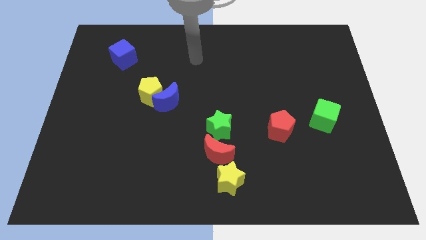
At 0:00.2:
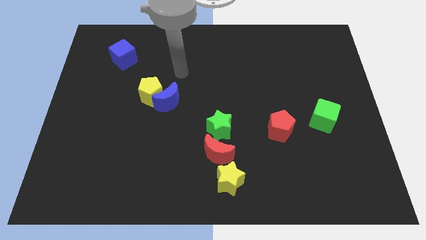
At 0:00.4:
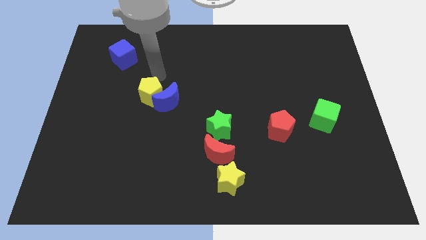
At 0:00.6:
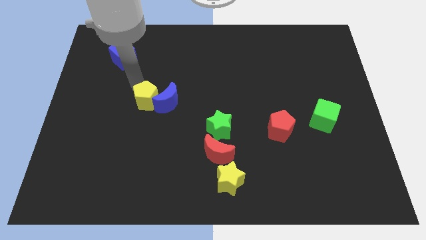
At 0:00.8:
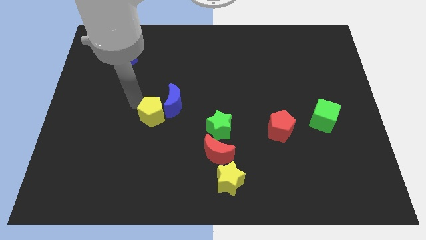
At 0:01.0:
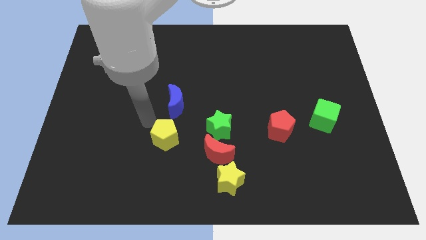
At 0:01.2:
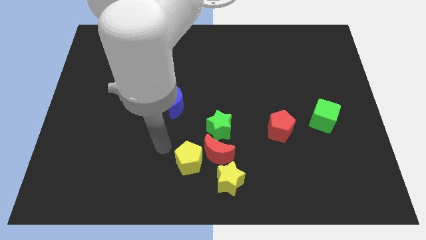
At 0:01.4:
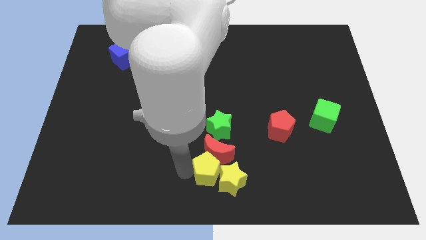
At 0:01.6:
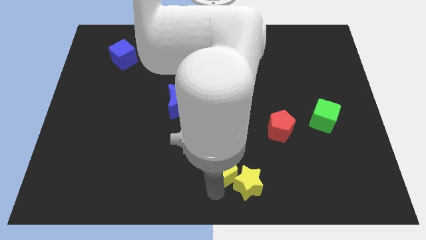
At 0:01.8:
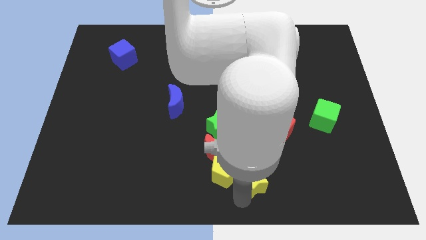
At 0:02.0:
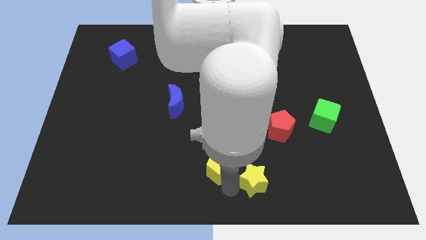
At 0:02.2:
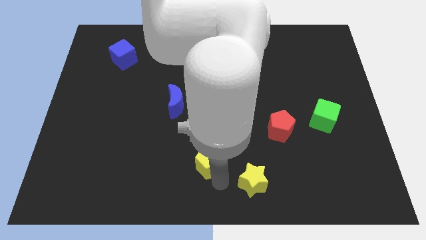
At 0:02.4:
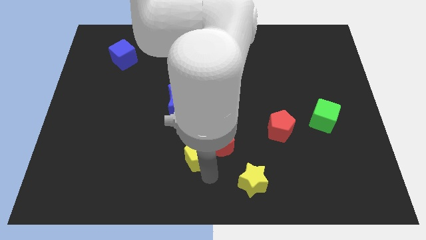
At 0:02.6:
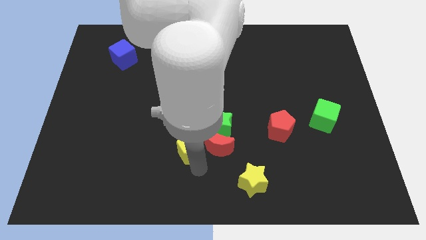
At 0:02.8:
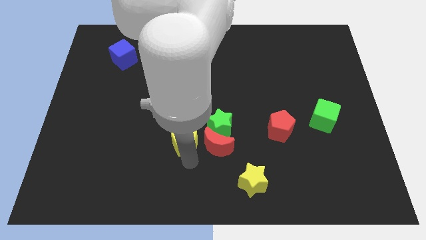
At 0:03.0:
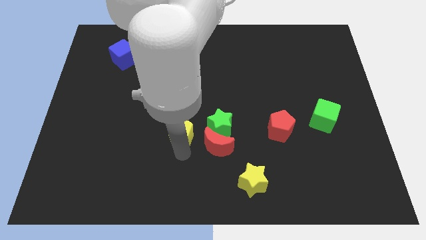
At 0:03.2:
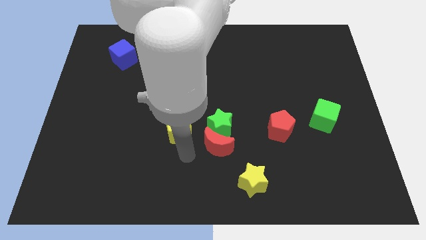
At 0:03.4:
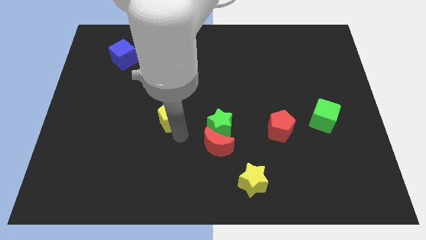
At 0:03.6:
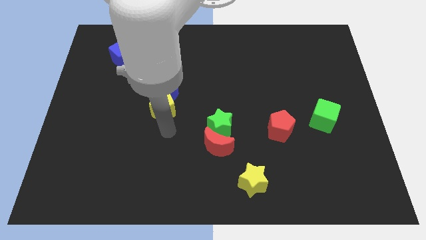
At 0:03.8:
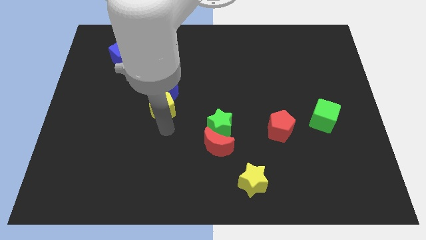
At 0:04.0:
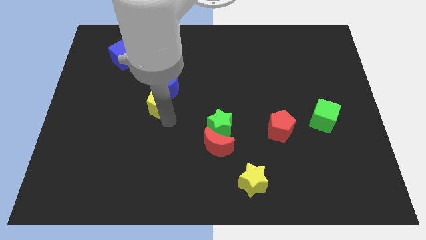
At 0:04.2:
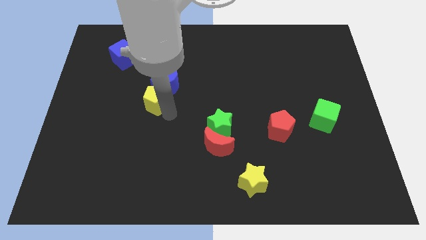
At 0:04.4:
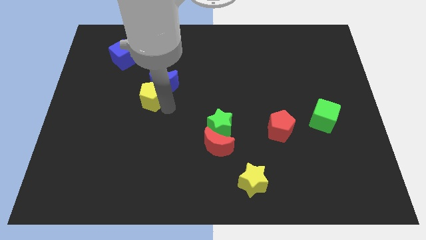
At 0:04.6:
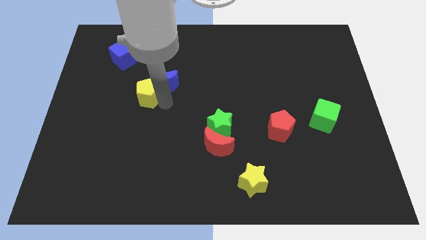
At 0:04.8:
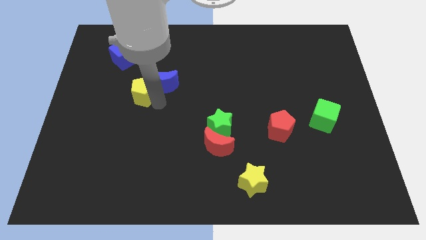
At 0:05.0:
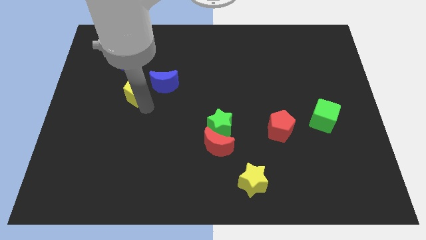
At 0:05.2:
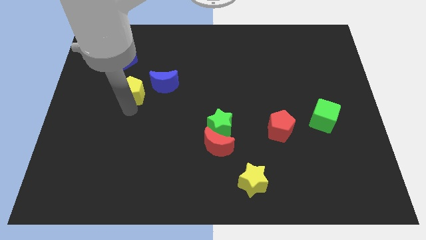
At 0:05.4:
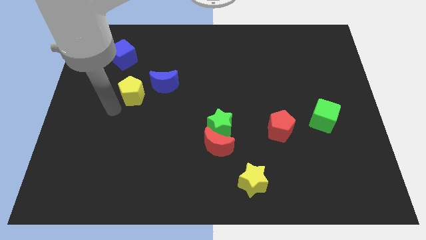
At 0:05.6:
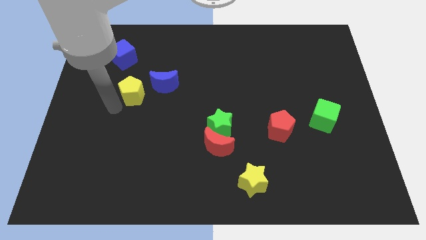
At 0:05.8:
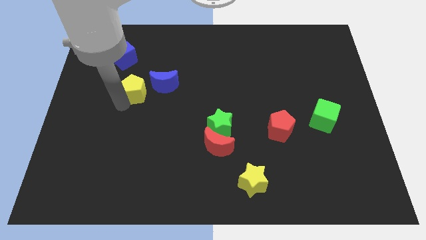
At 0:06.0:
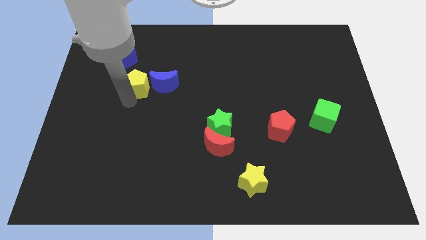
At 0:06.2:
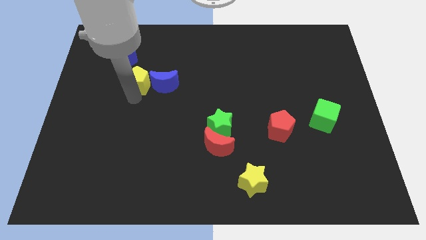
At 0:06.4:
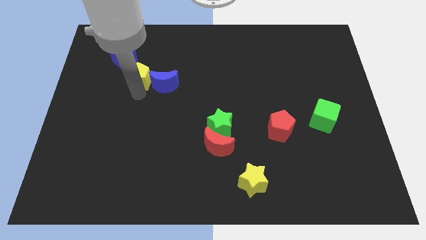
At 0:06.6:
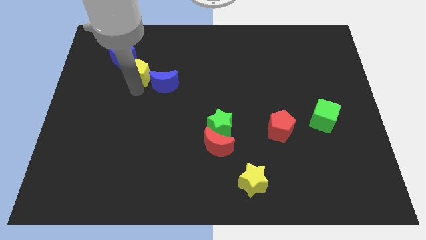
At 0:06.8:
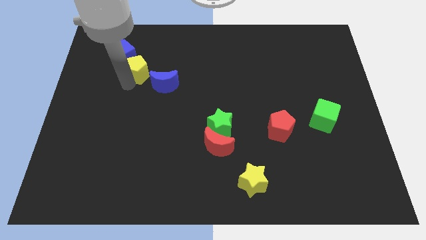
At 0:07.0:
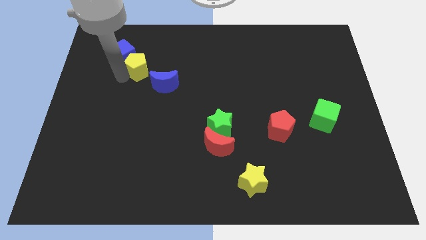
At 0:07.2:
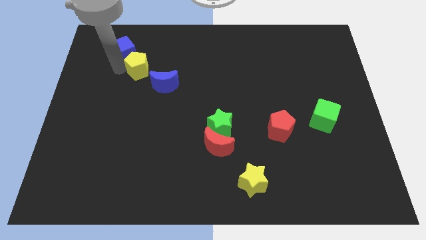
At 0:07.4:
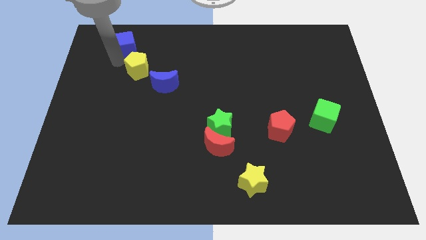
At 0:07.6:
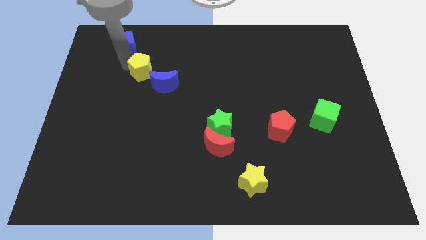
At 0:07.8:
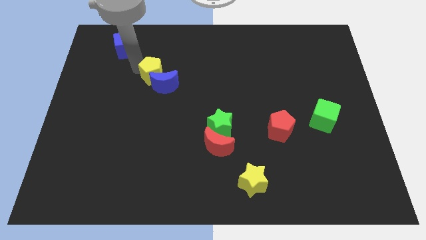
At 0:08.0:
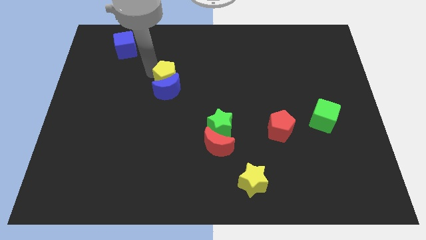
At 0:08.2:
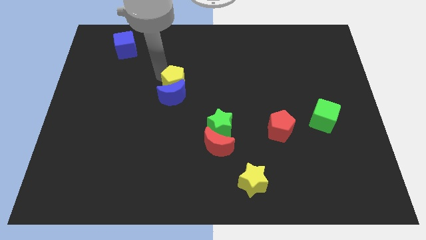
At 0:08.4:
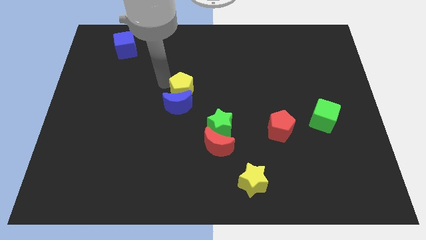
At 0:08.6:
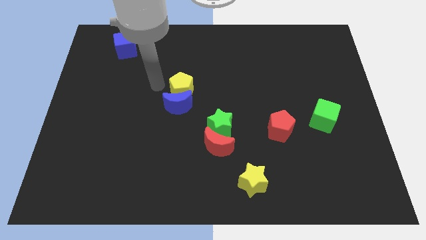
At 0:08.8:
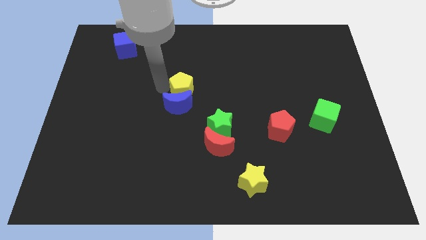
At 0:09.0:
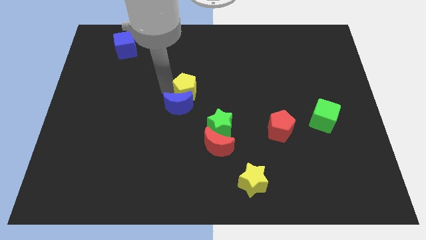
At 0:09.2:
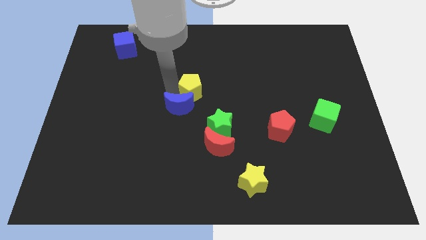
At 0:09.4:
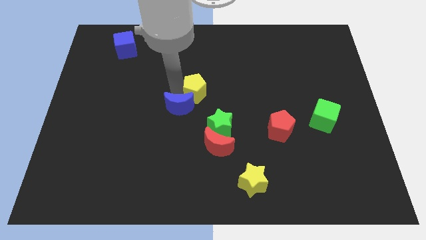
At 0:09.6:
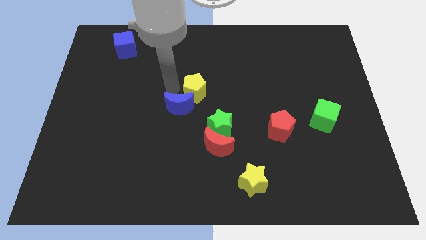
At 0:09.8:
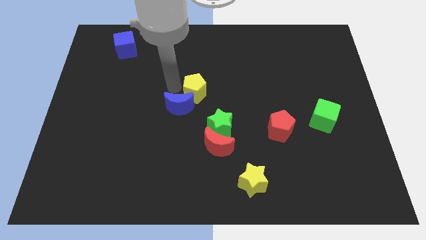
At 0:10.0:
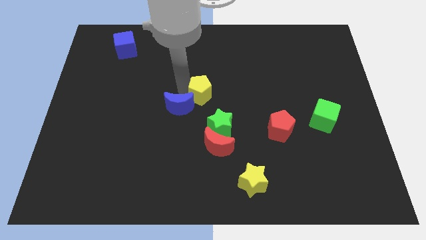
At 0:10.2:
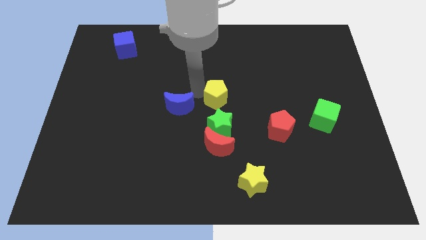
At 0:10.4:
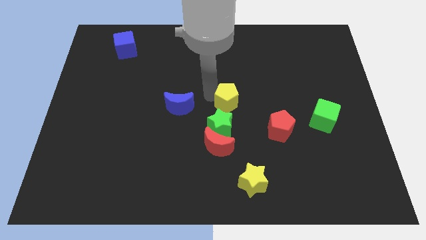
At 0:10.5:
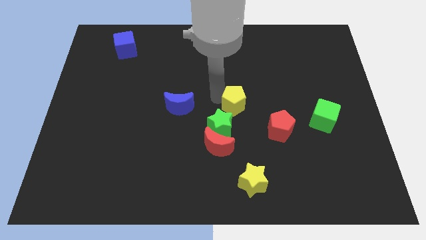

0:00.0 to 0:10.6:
slide the yellow pentagon to the top left side of the red pentagon

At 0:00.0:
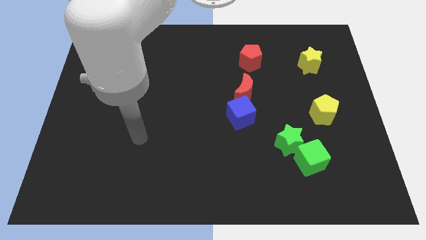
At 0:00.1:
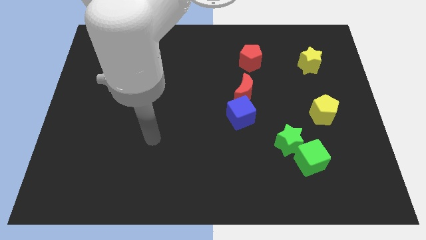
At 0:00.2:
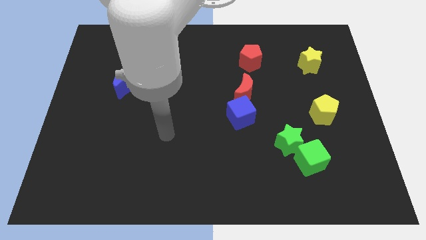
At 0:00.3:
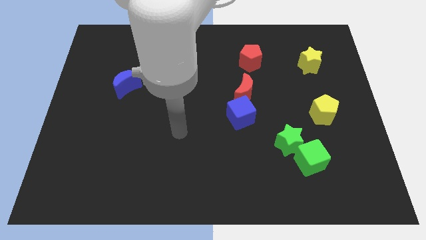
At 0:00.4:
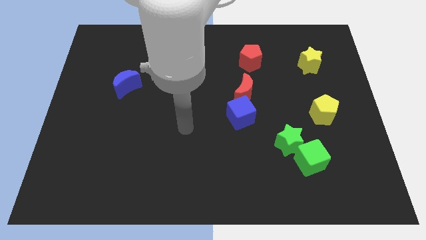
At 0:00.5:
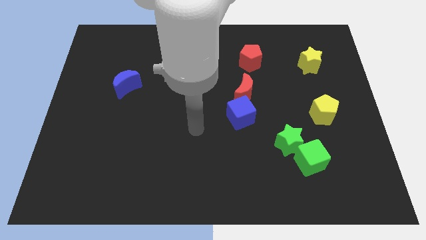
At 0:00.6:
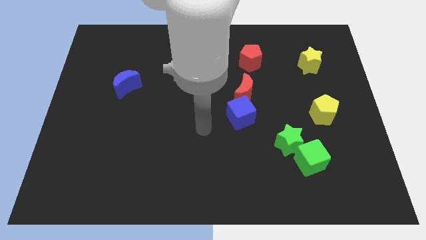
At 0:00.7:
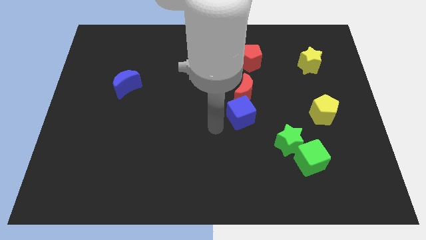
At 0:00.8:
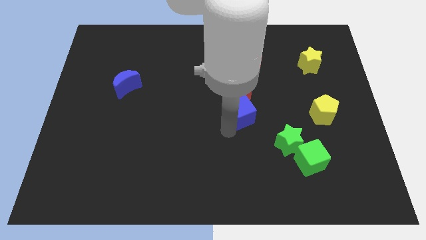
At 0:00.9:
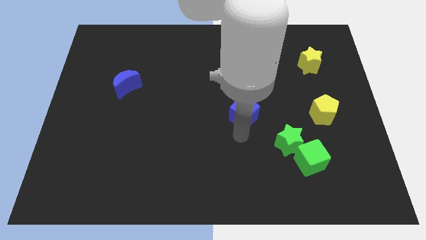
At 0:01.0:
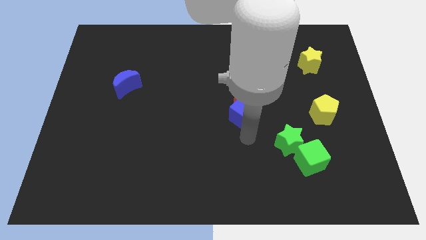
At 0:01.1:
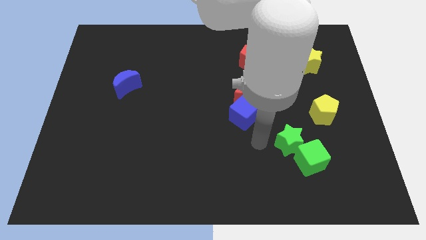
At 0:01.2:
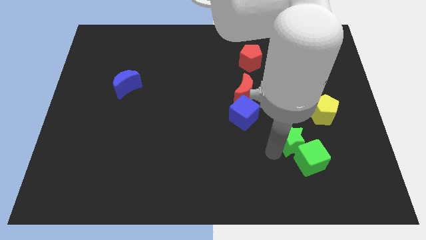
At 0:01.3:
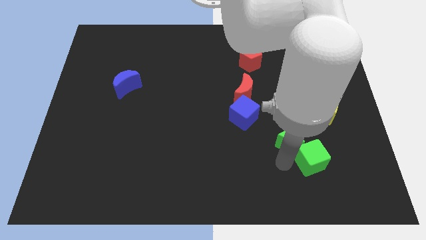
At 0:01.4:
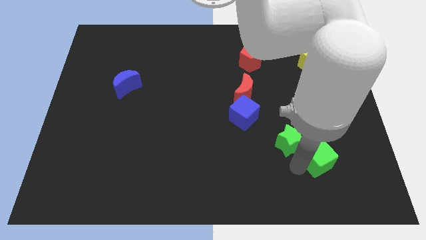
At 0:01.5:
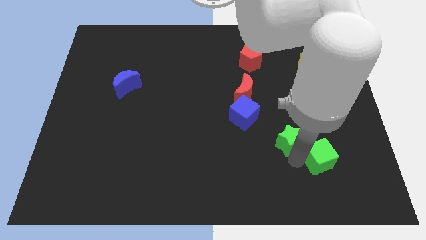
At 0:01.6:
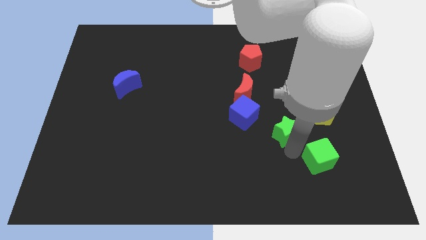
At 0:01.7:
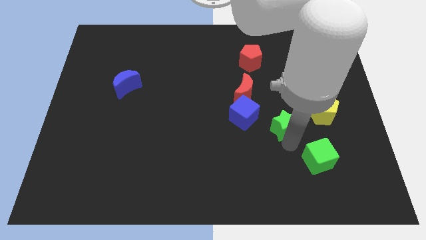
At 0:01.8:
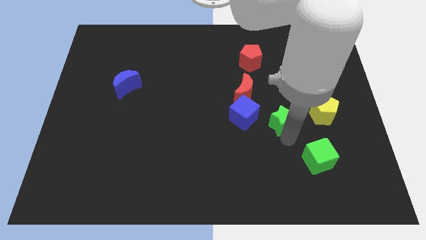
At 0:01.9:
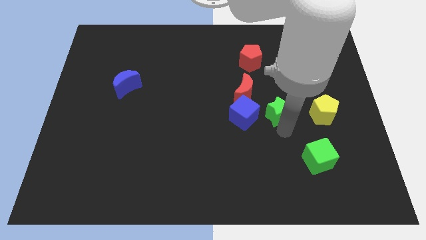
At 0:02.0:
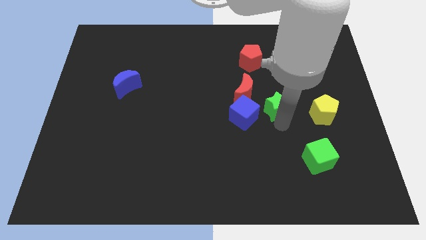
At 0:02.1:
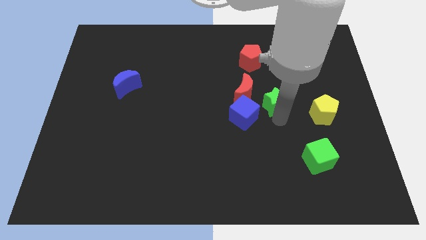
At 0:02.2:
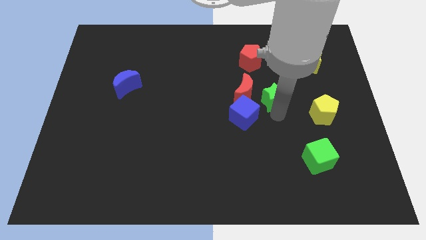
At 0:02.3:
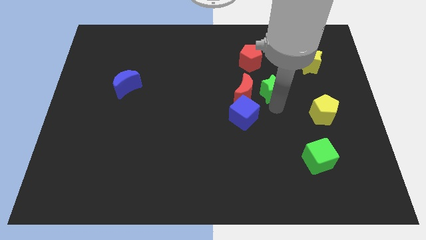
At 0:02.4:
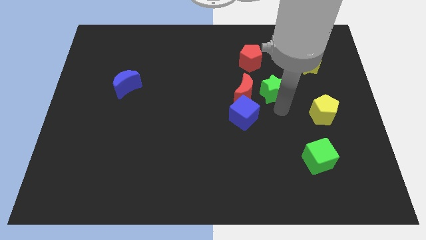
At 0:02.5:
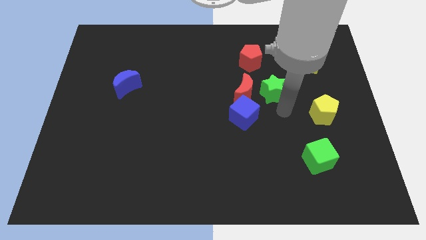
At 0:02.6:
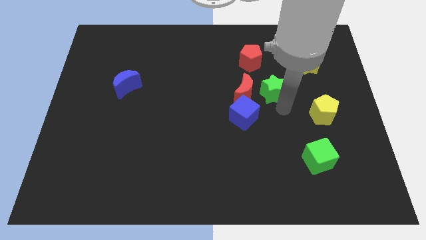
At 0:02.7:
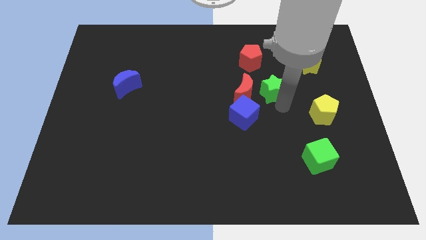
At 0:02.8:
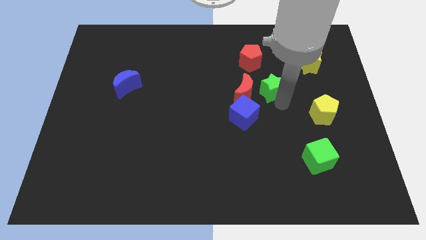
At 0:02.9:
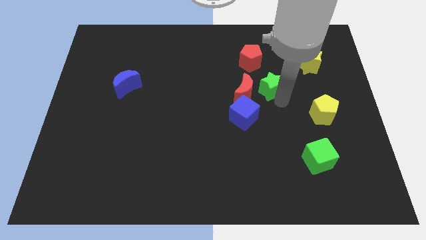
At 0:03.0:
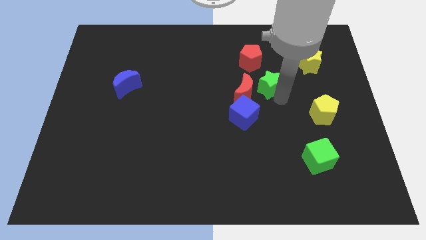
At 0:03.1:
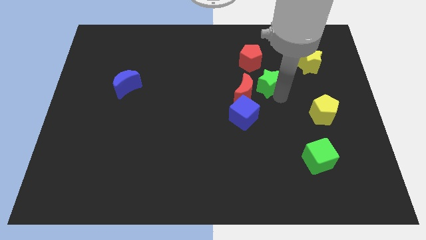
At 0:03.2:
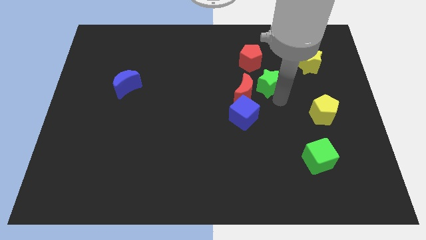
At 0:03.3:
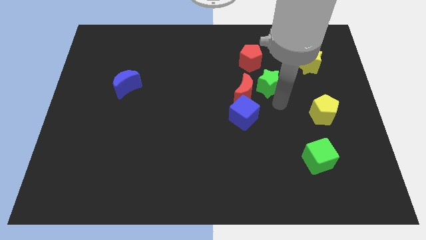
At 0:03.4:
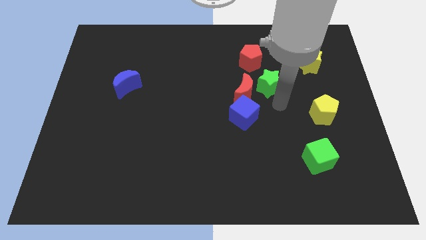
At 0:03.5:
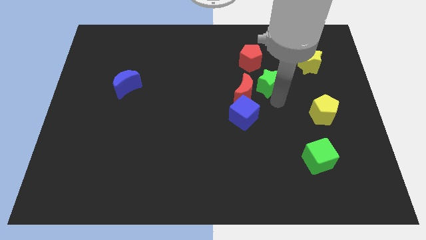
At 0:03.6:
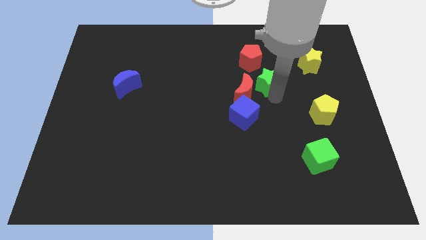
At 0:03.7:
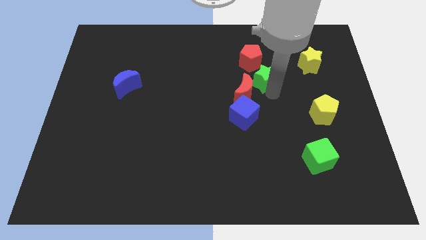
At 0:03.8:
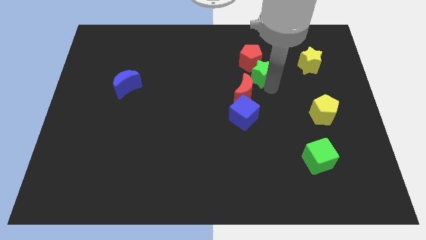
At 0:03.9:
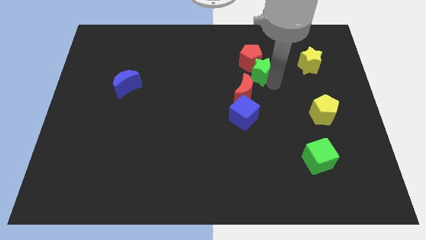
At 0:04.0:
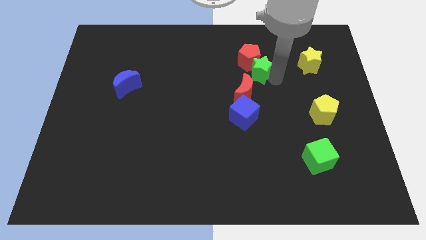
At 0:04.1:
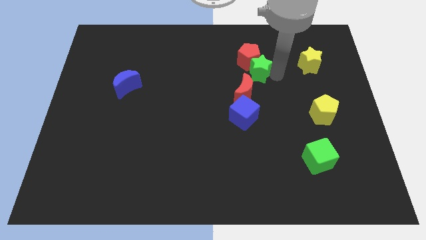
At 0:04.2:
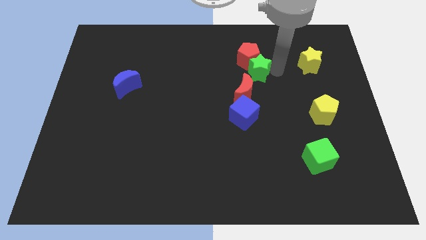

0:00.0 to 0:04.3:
slide the green star above the blue cube
